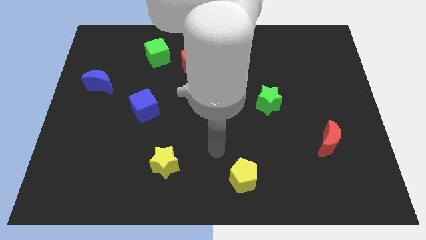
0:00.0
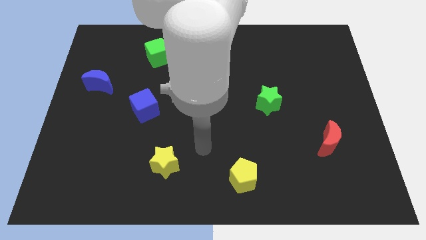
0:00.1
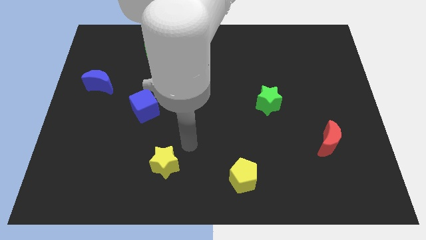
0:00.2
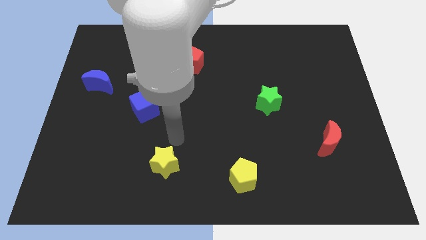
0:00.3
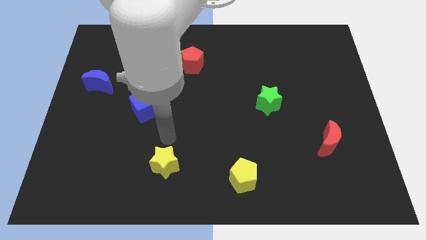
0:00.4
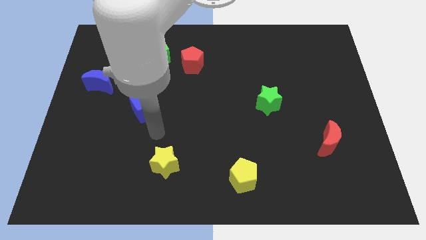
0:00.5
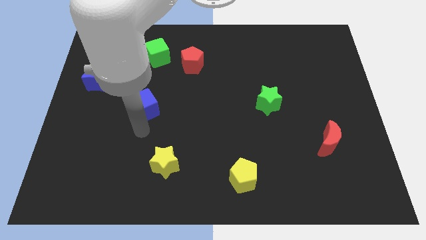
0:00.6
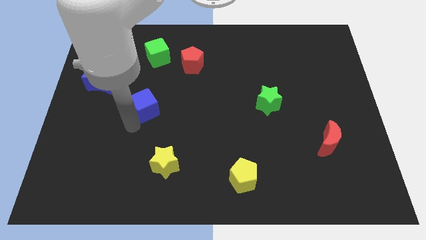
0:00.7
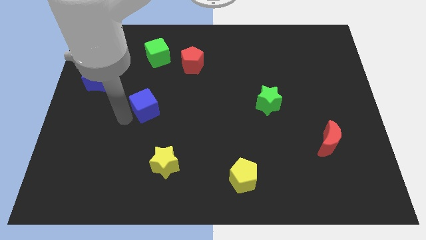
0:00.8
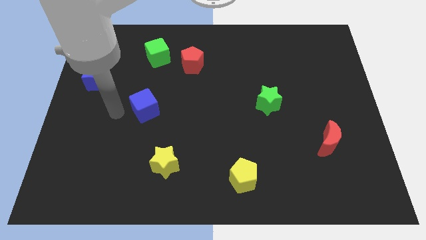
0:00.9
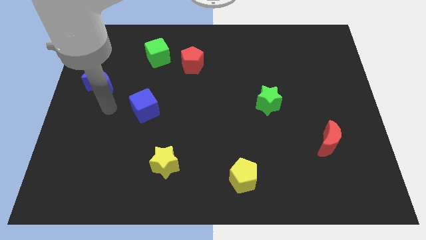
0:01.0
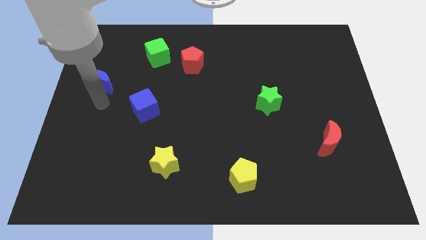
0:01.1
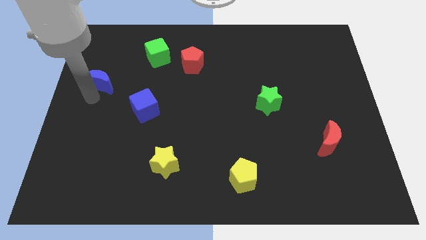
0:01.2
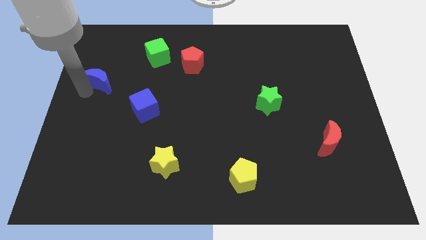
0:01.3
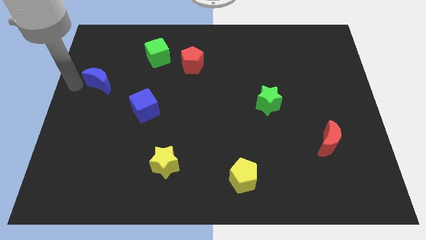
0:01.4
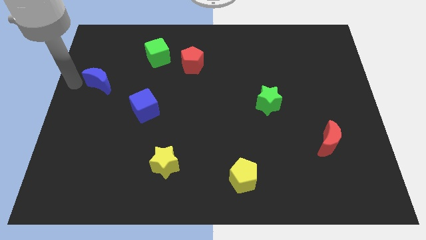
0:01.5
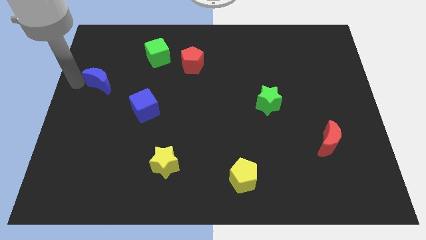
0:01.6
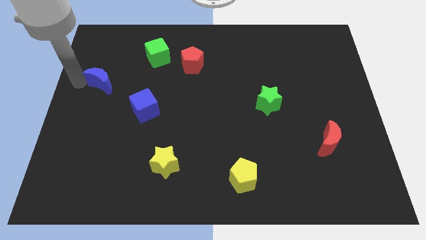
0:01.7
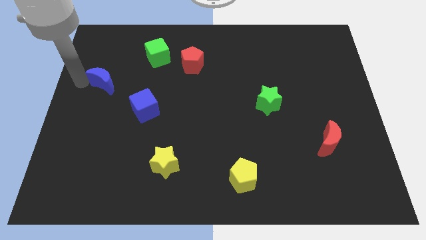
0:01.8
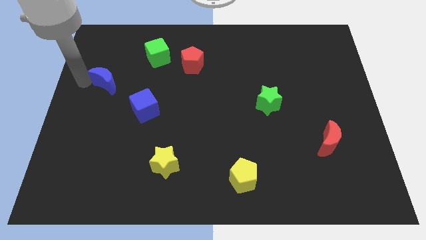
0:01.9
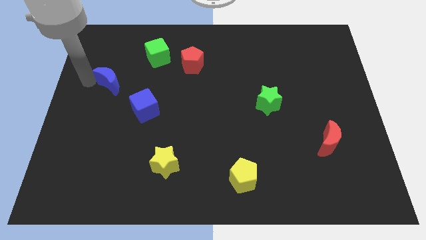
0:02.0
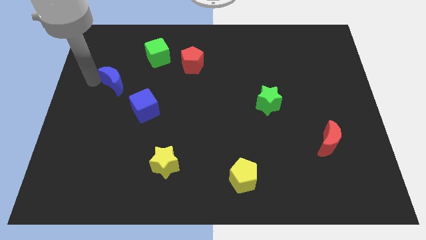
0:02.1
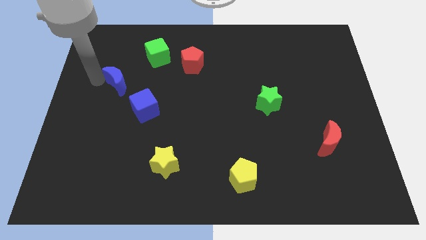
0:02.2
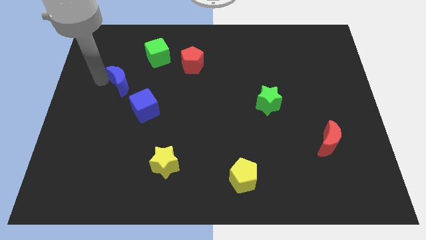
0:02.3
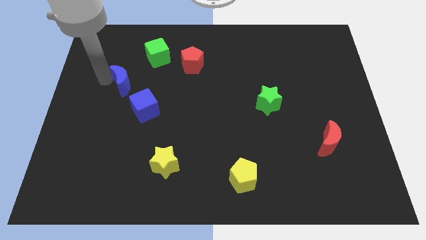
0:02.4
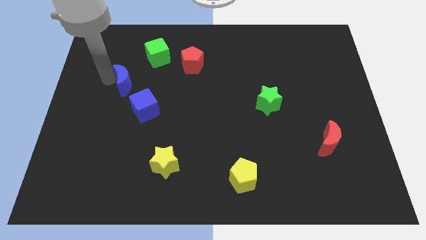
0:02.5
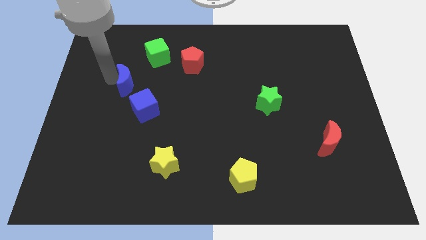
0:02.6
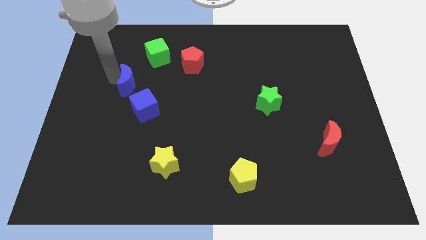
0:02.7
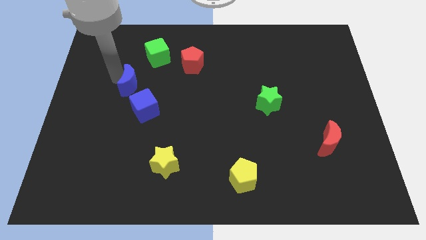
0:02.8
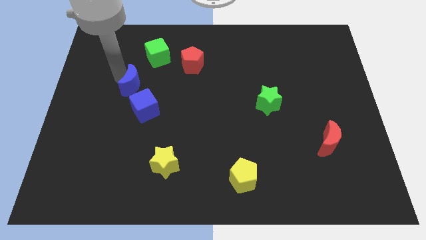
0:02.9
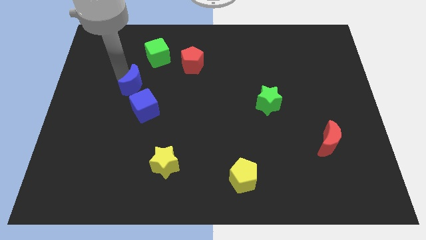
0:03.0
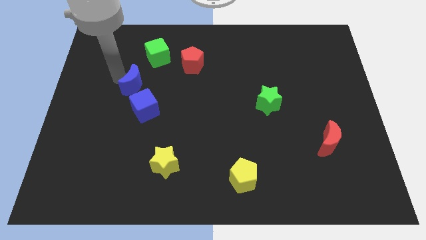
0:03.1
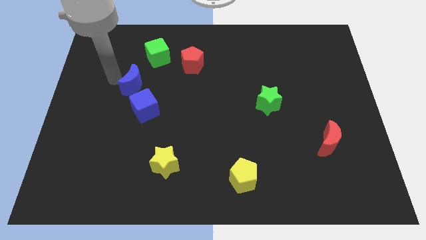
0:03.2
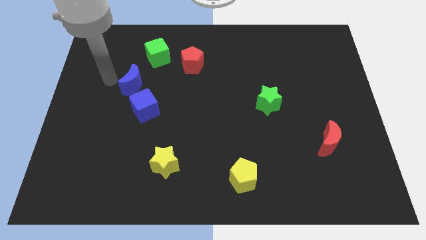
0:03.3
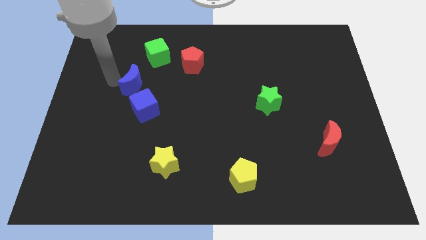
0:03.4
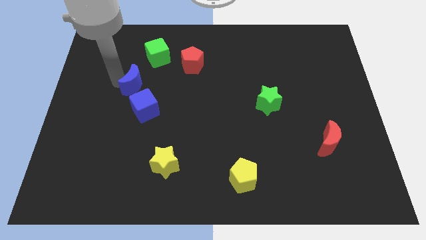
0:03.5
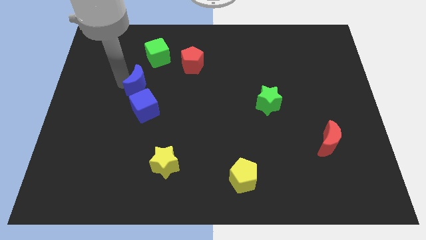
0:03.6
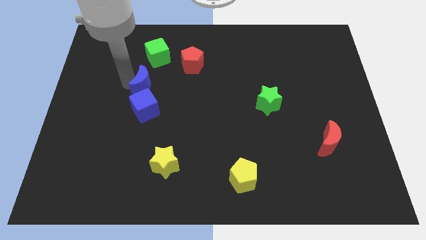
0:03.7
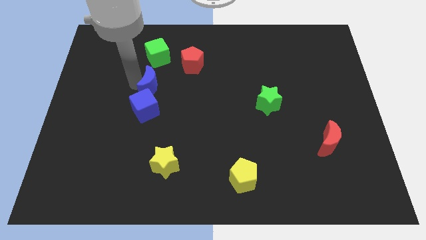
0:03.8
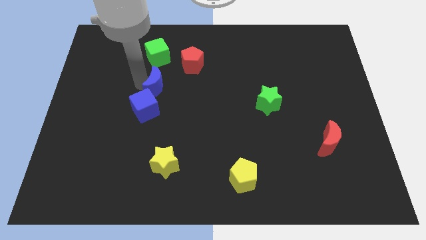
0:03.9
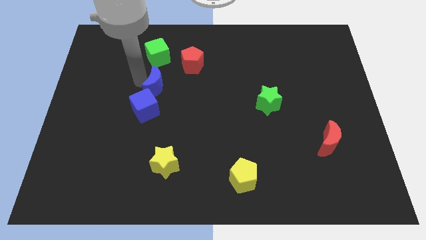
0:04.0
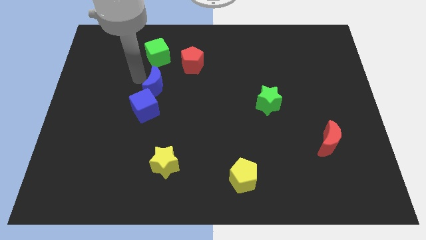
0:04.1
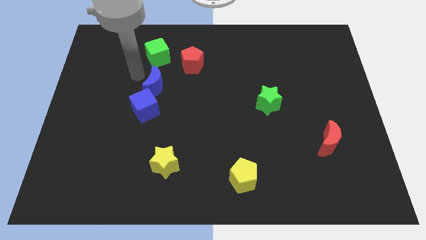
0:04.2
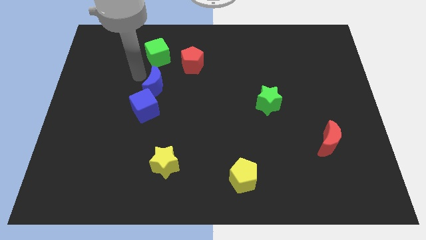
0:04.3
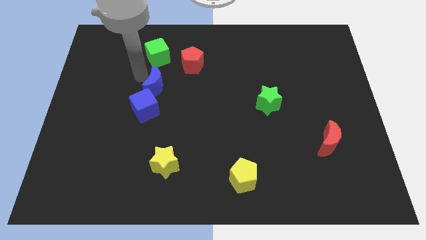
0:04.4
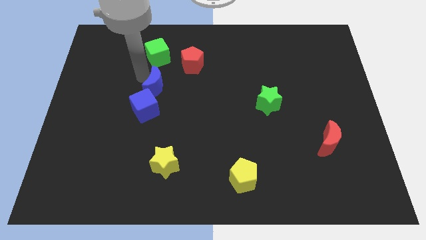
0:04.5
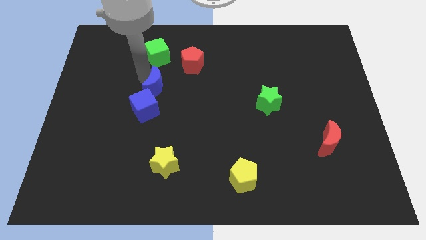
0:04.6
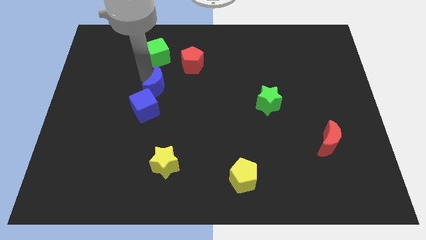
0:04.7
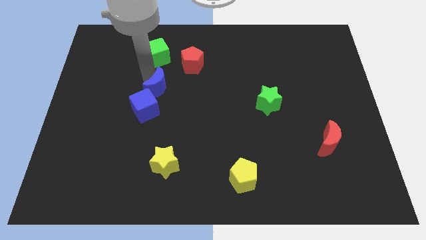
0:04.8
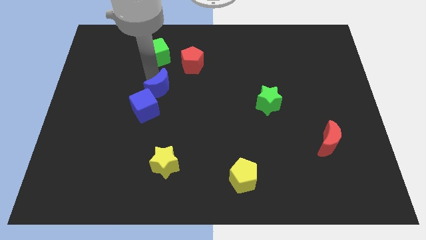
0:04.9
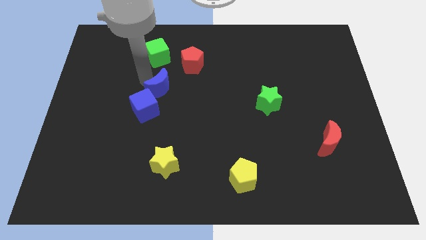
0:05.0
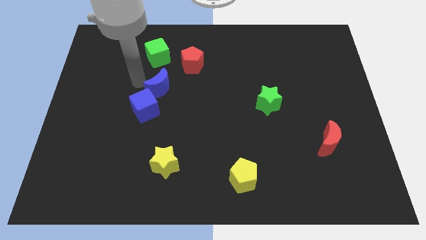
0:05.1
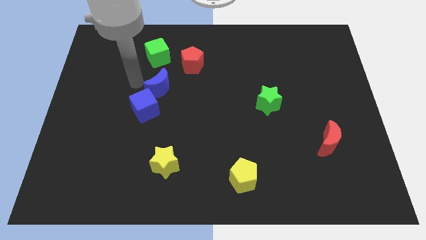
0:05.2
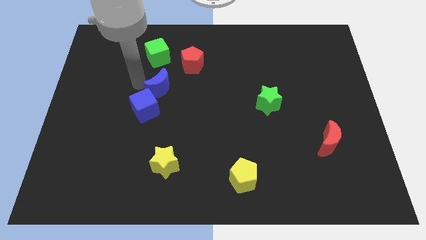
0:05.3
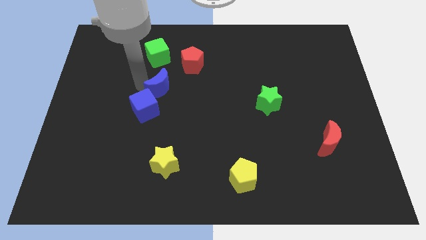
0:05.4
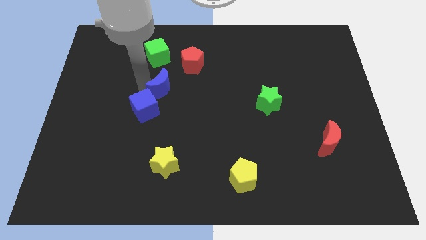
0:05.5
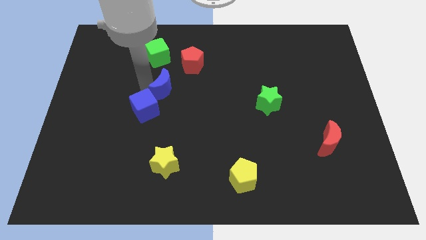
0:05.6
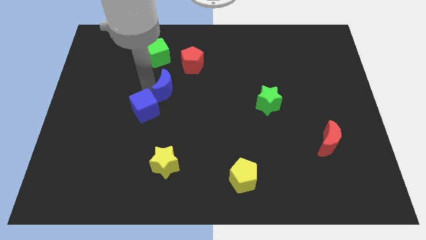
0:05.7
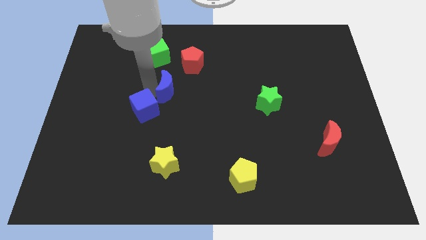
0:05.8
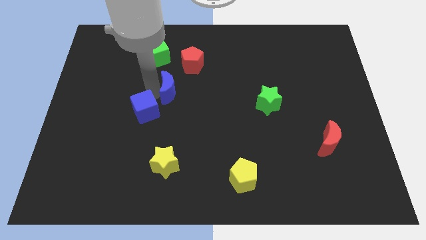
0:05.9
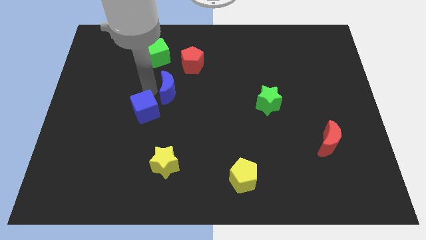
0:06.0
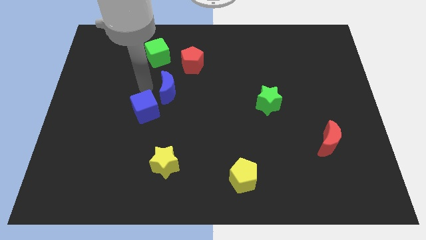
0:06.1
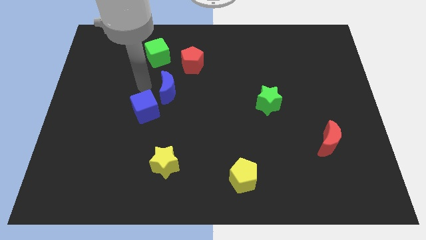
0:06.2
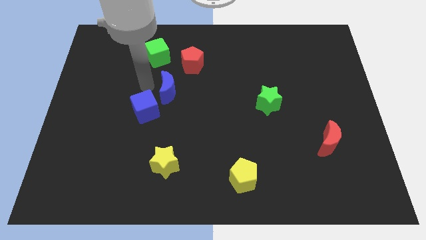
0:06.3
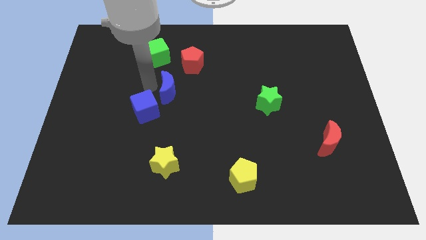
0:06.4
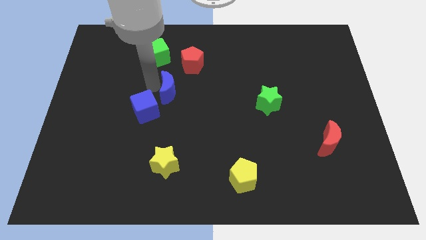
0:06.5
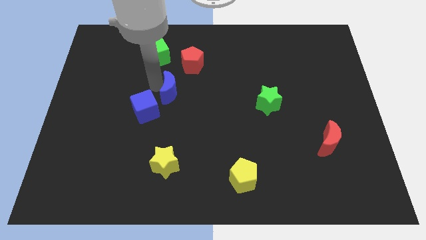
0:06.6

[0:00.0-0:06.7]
push the blue moon to the bottom of the red pentagon

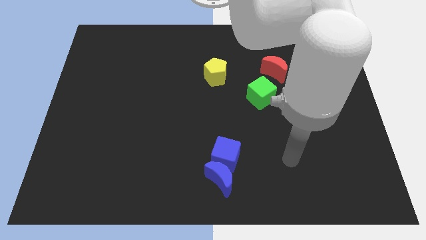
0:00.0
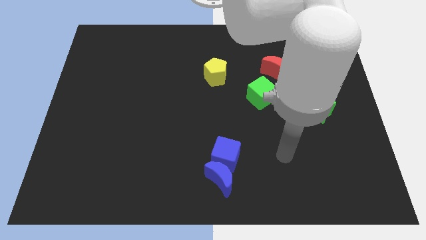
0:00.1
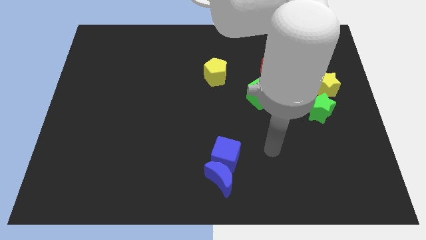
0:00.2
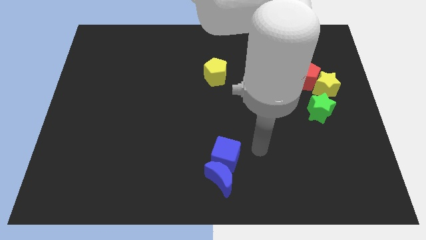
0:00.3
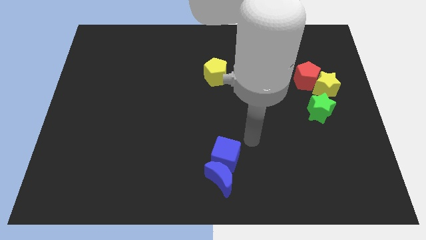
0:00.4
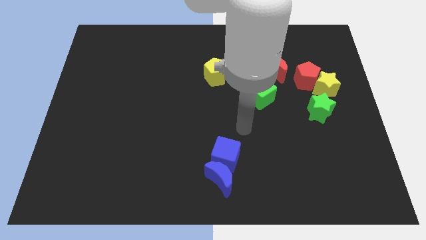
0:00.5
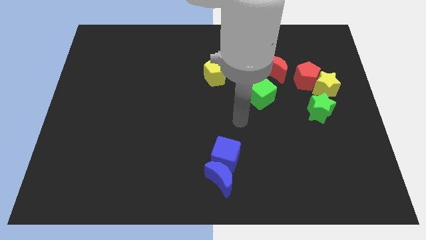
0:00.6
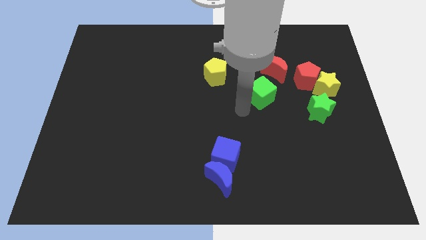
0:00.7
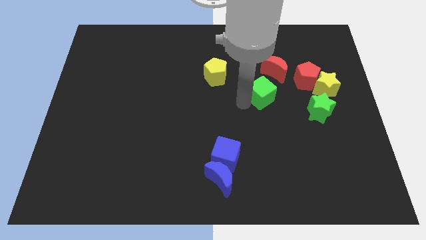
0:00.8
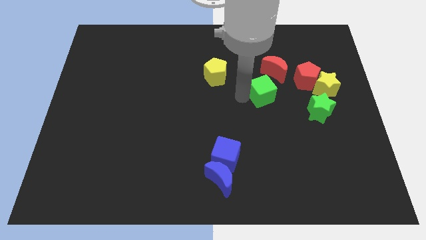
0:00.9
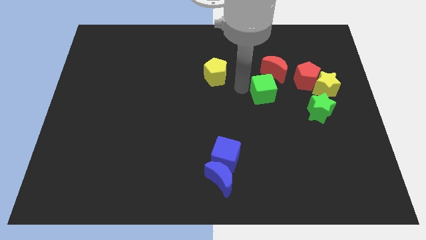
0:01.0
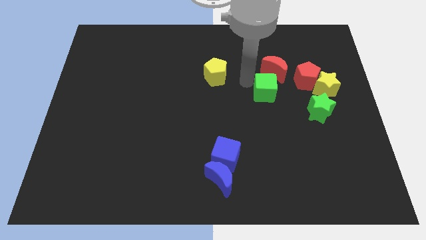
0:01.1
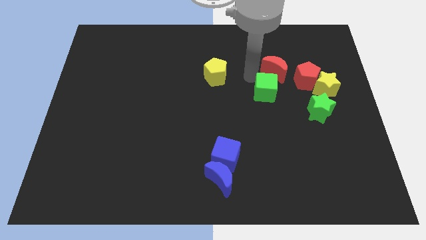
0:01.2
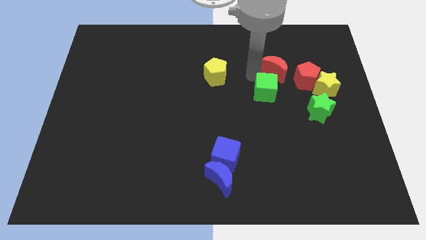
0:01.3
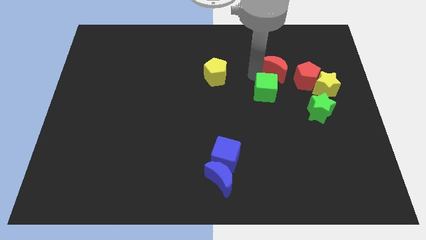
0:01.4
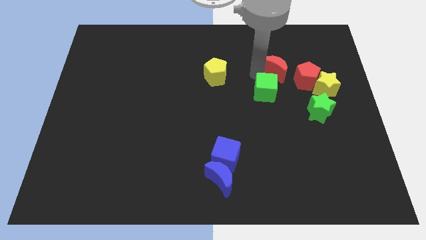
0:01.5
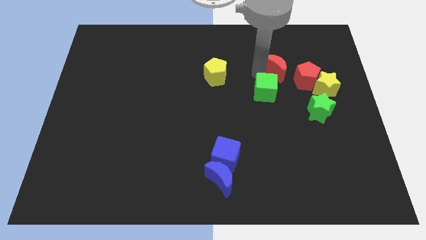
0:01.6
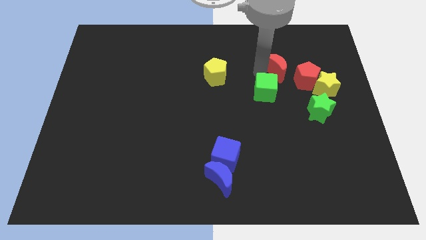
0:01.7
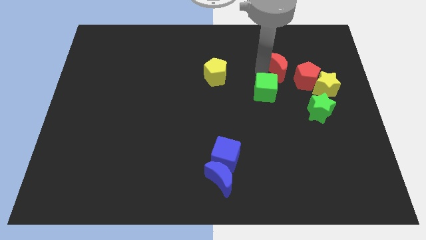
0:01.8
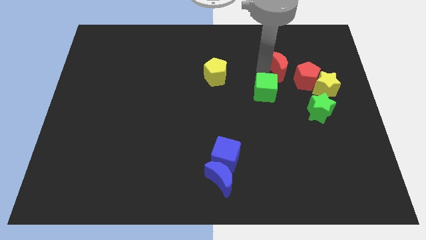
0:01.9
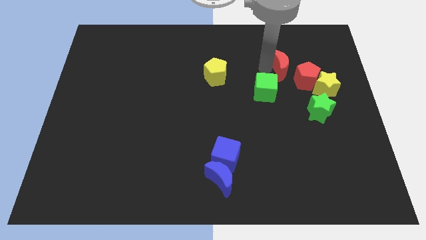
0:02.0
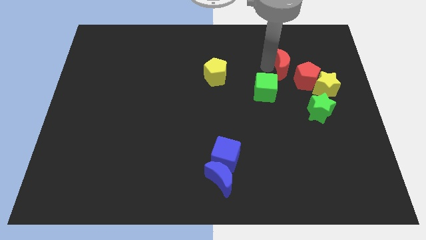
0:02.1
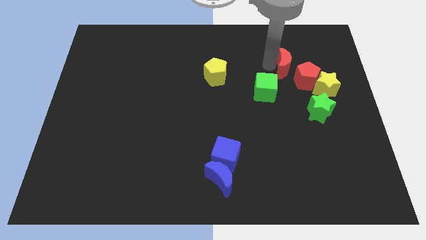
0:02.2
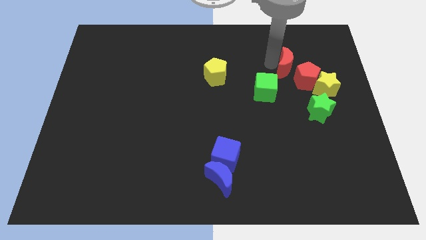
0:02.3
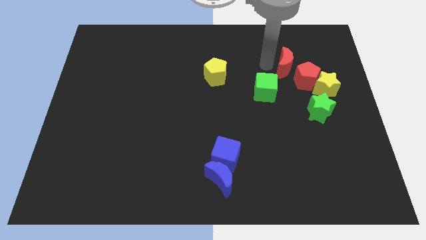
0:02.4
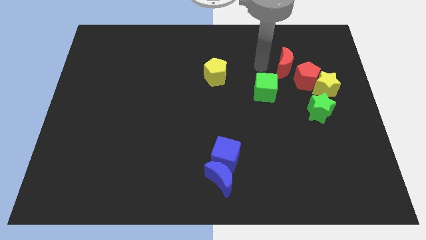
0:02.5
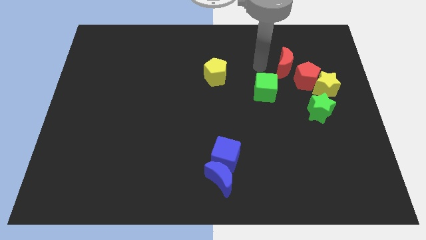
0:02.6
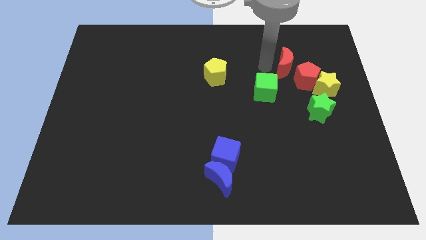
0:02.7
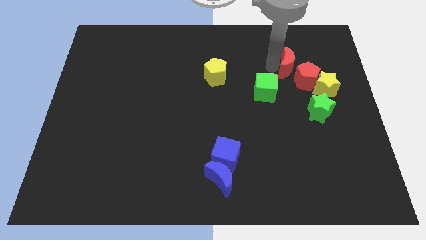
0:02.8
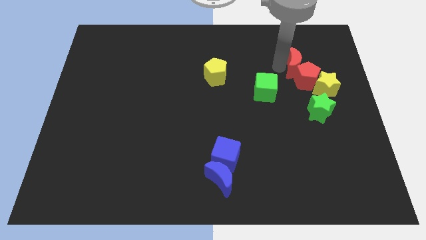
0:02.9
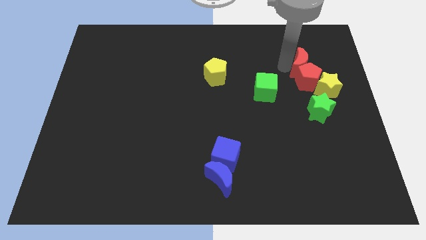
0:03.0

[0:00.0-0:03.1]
slide the red moon to the top of the green star
